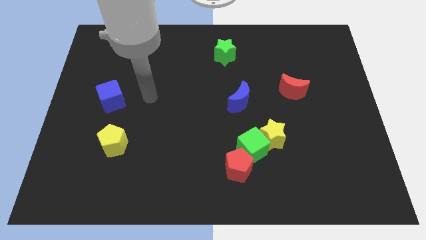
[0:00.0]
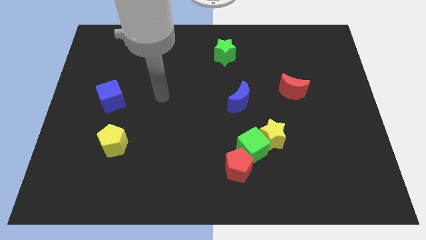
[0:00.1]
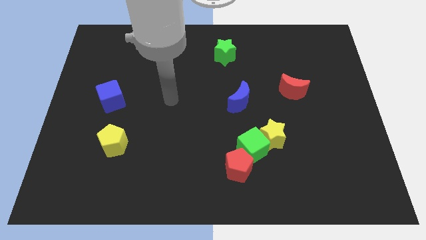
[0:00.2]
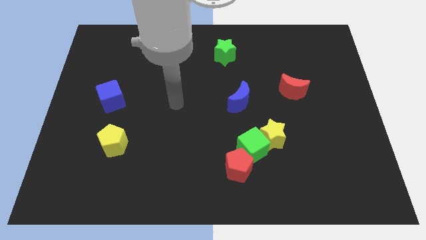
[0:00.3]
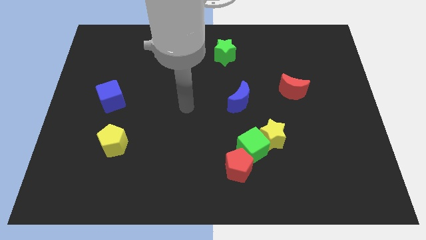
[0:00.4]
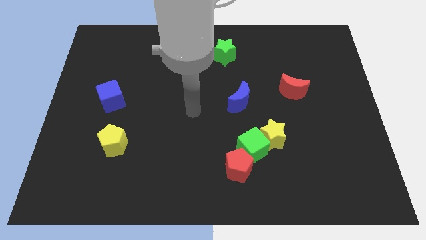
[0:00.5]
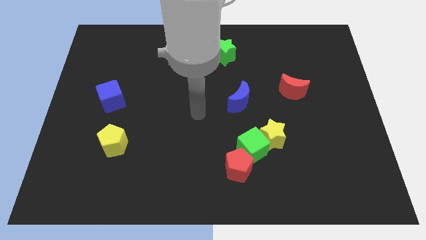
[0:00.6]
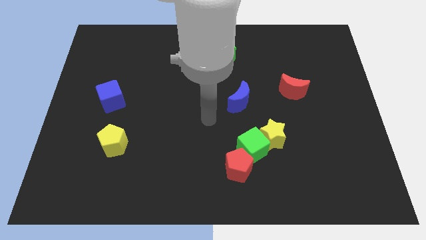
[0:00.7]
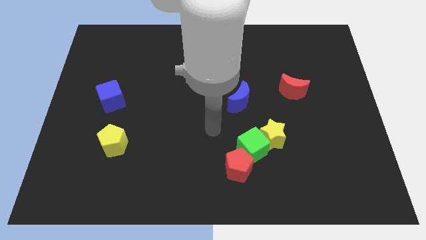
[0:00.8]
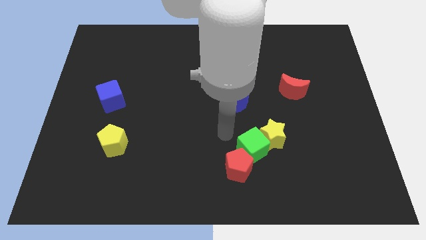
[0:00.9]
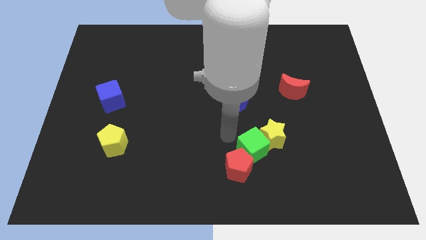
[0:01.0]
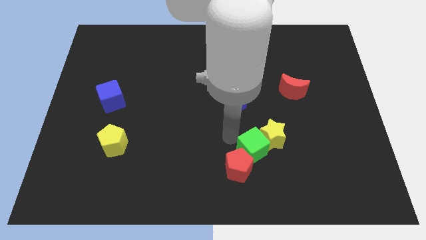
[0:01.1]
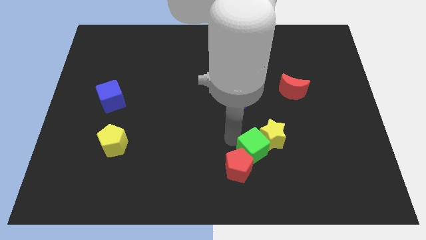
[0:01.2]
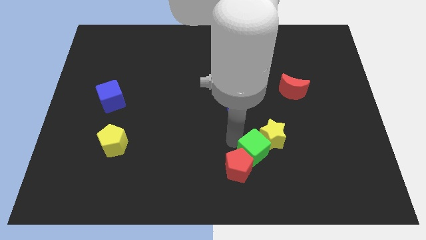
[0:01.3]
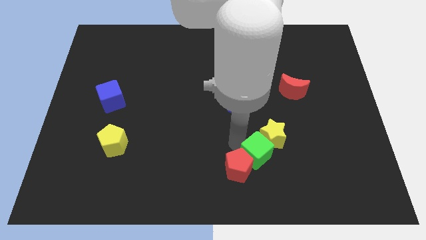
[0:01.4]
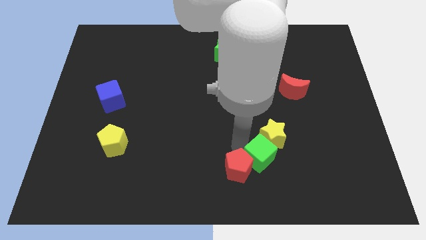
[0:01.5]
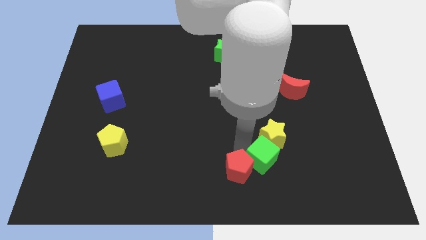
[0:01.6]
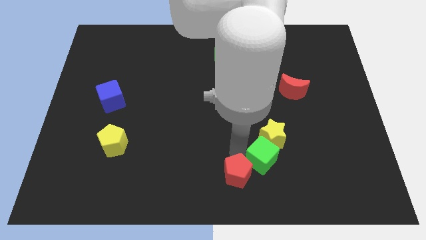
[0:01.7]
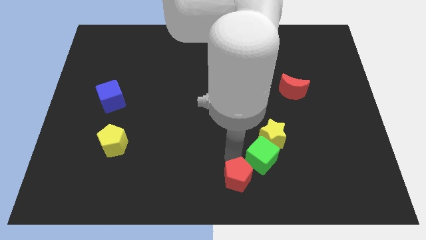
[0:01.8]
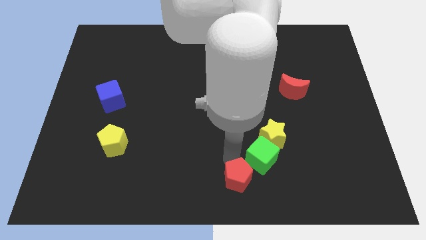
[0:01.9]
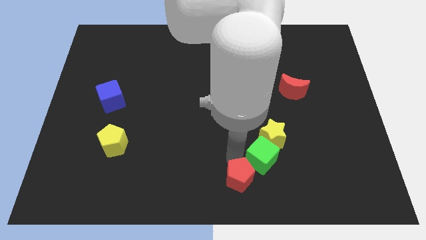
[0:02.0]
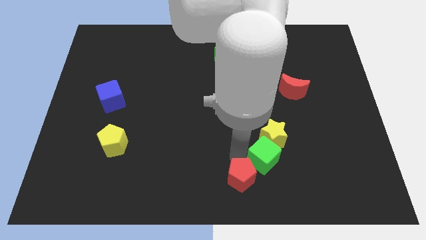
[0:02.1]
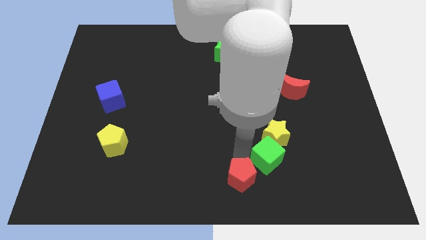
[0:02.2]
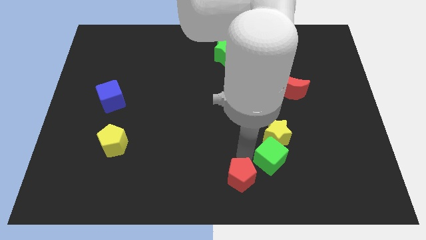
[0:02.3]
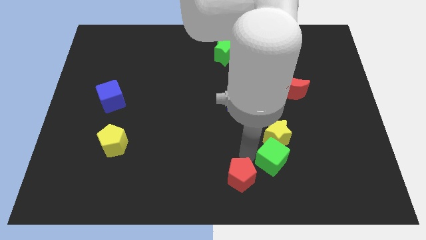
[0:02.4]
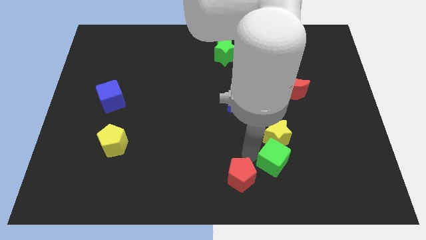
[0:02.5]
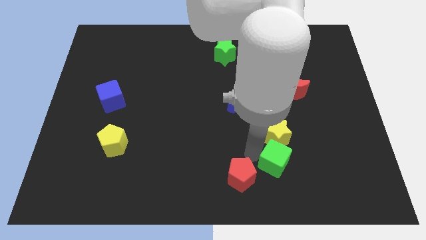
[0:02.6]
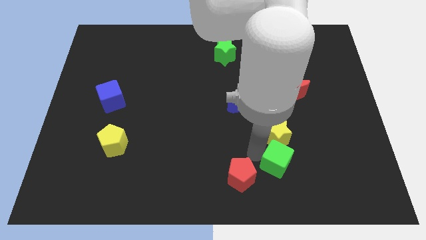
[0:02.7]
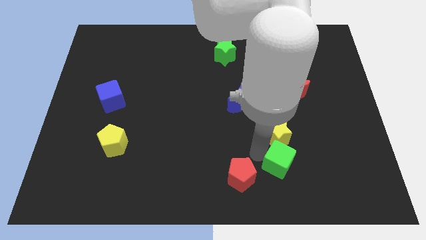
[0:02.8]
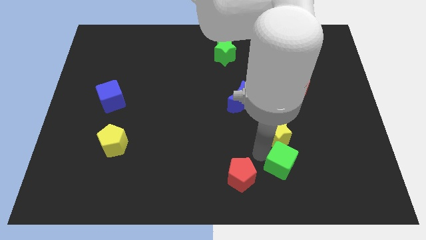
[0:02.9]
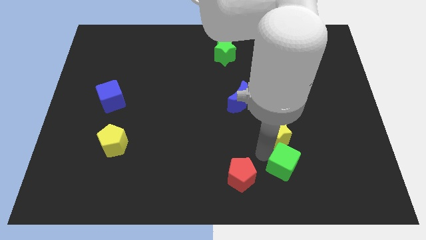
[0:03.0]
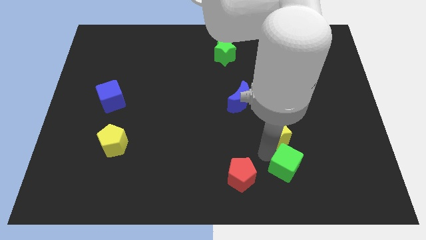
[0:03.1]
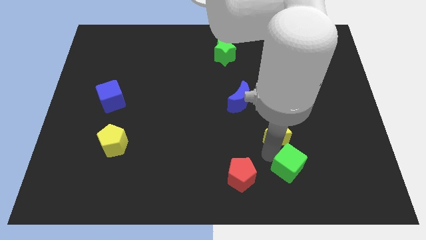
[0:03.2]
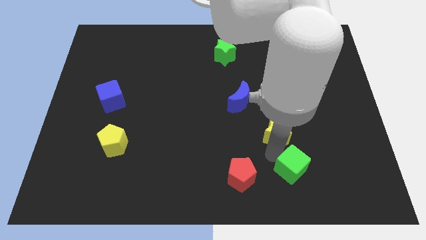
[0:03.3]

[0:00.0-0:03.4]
move the green cube right somewhat

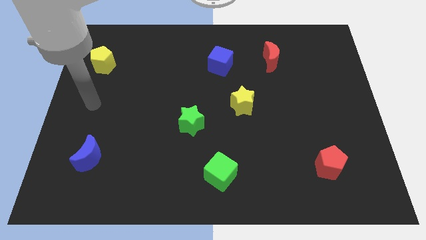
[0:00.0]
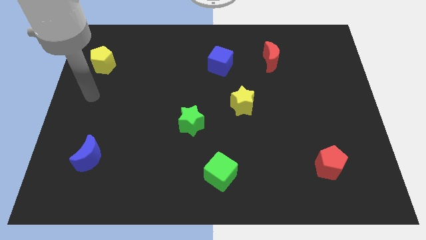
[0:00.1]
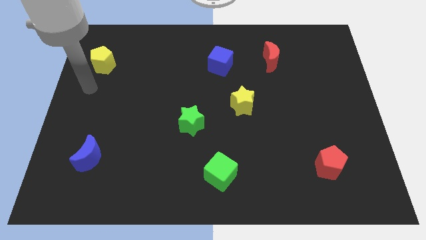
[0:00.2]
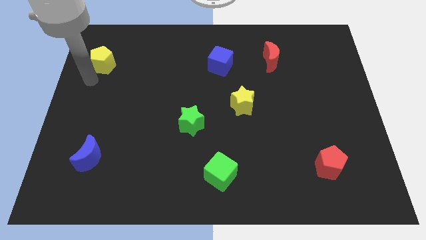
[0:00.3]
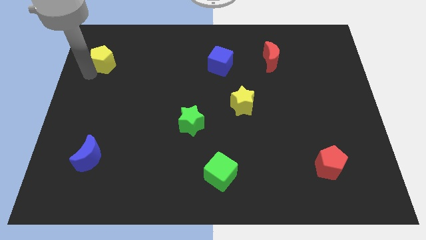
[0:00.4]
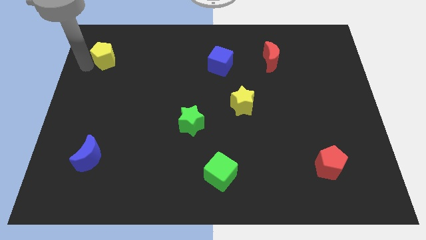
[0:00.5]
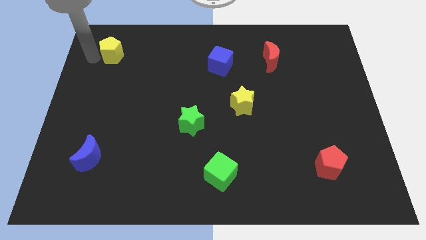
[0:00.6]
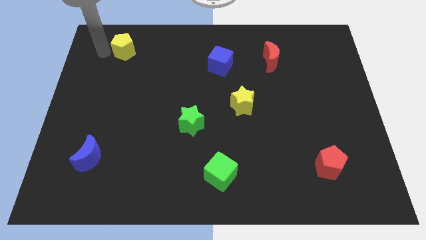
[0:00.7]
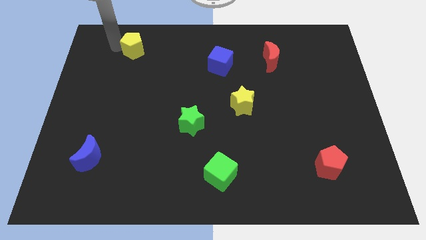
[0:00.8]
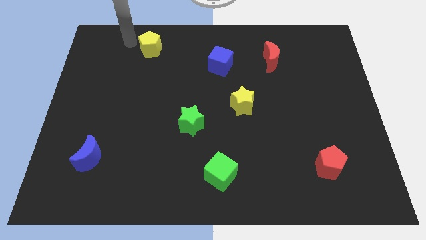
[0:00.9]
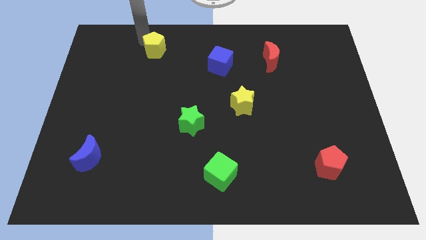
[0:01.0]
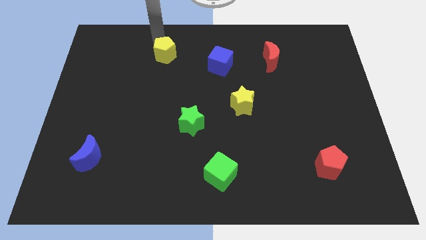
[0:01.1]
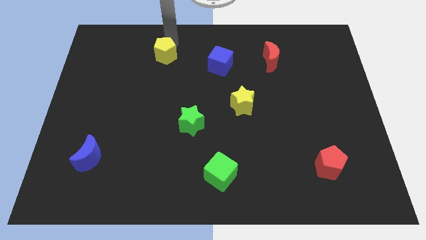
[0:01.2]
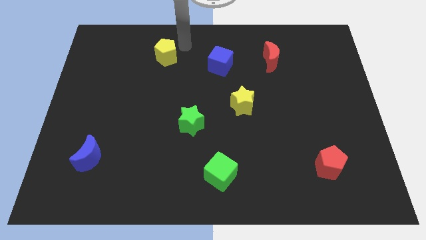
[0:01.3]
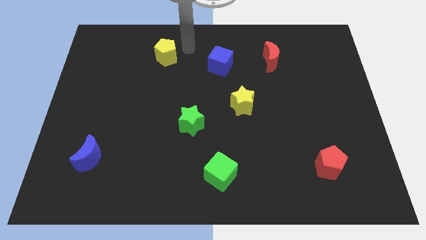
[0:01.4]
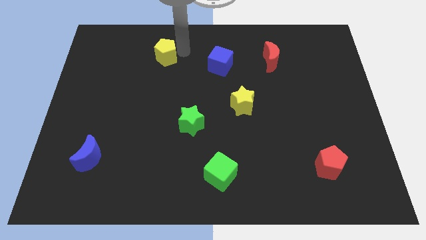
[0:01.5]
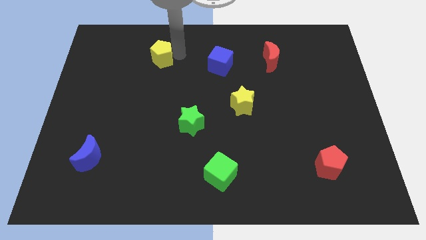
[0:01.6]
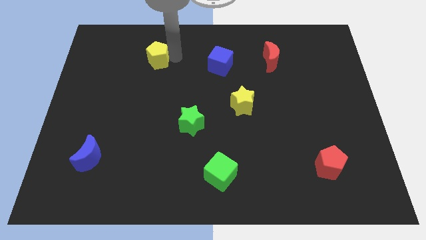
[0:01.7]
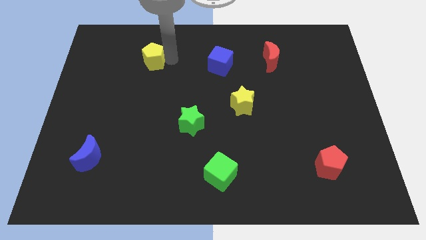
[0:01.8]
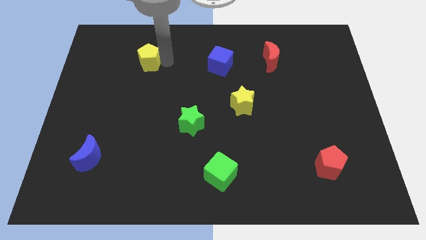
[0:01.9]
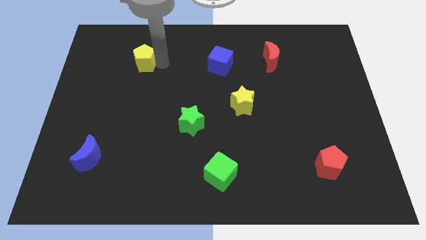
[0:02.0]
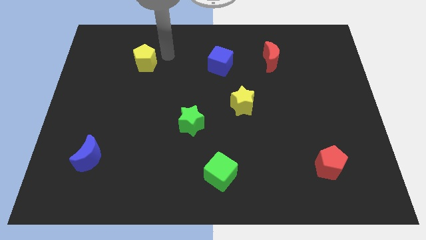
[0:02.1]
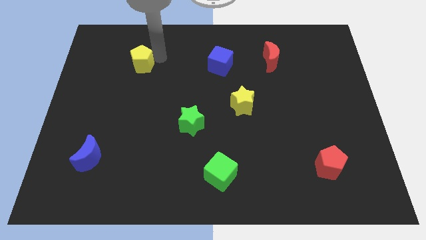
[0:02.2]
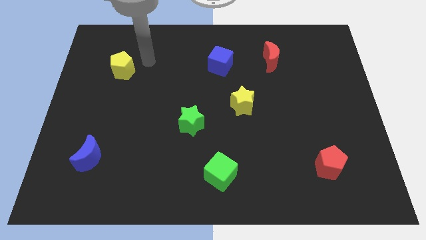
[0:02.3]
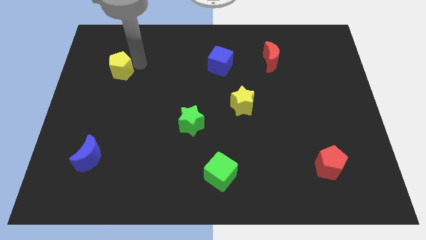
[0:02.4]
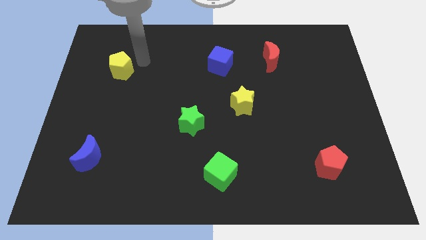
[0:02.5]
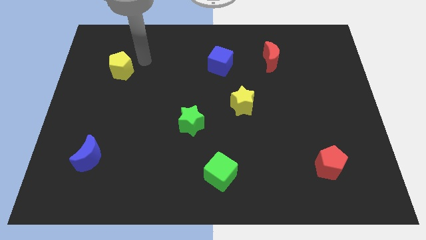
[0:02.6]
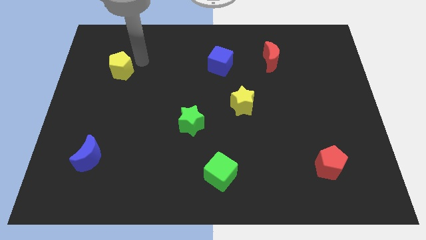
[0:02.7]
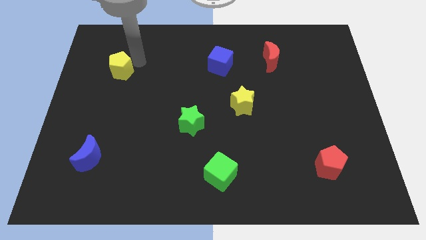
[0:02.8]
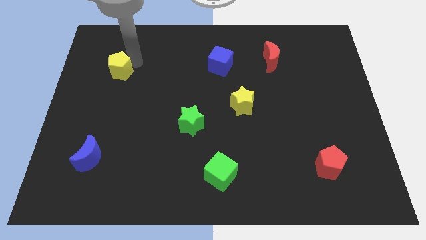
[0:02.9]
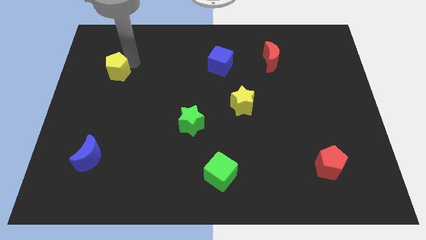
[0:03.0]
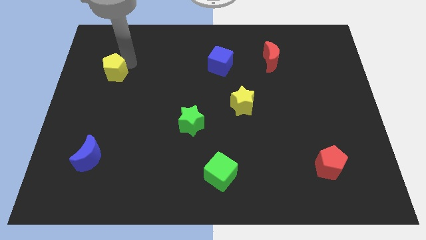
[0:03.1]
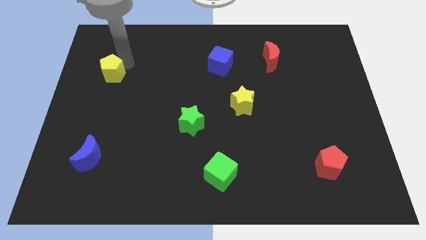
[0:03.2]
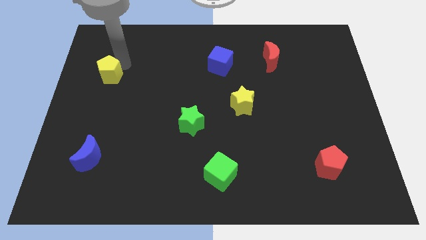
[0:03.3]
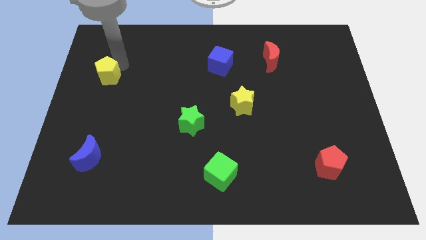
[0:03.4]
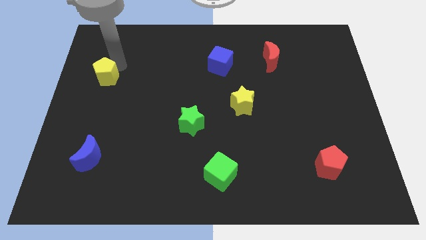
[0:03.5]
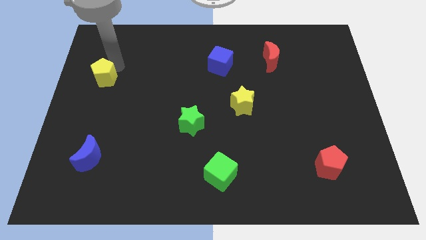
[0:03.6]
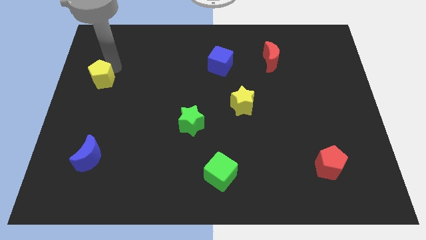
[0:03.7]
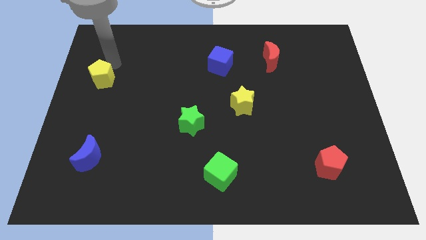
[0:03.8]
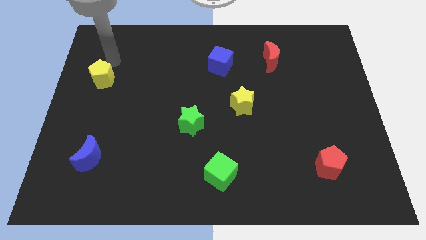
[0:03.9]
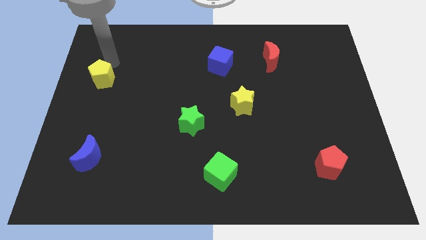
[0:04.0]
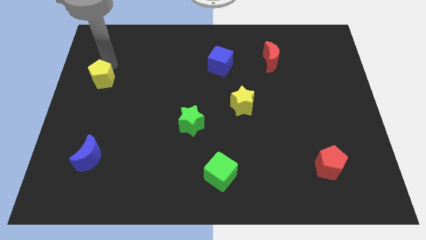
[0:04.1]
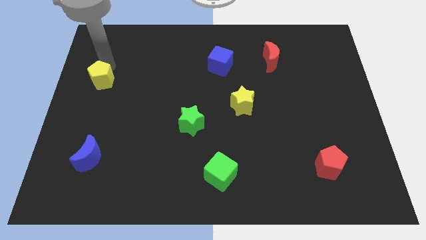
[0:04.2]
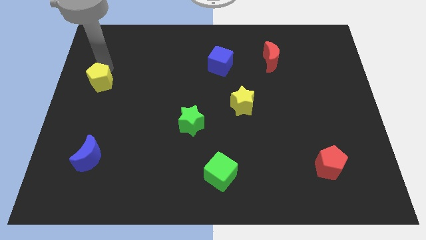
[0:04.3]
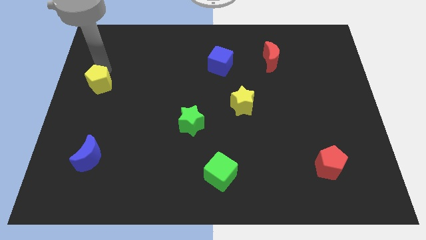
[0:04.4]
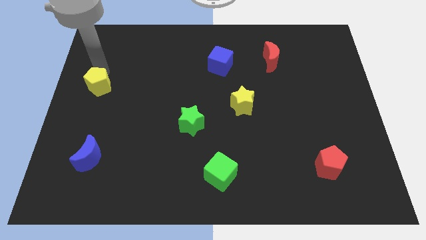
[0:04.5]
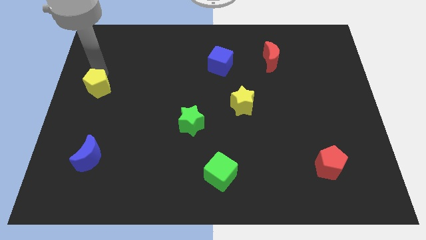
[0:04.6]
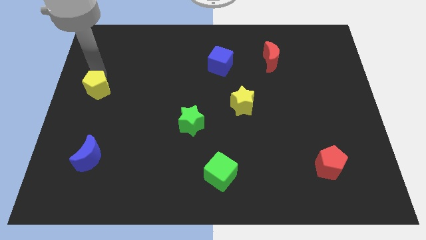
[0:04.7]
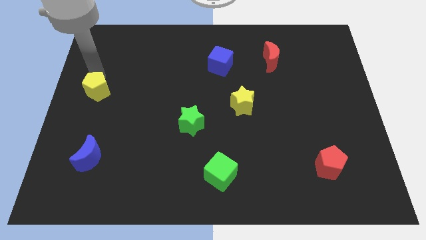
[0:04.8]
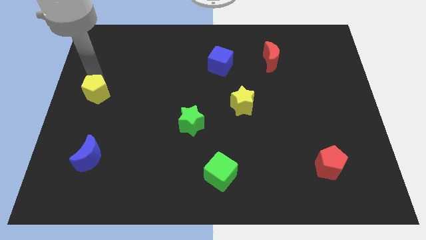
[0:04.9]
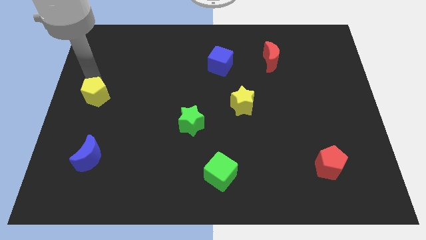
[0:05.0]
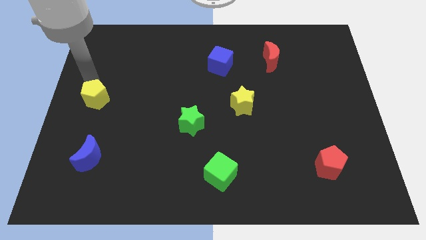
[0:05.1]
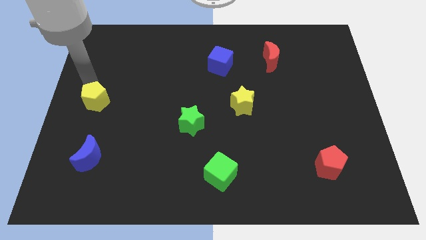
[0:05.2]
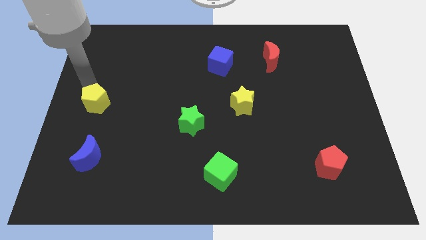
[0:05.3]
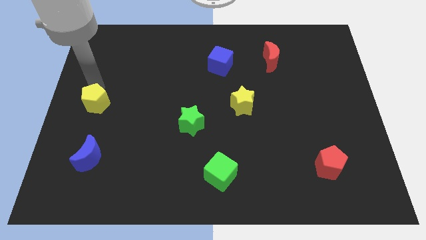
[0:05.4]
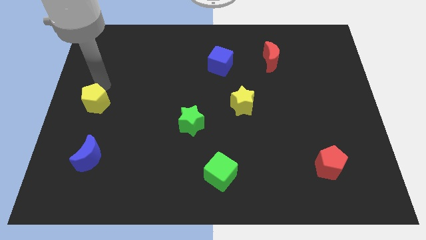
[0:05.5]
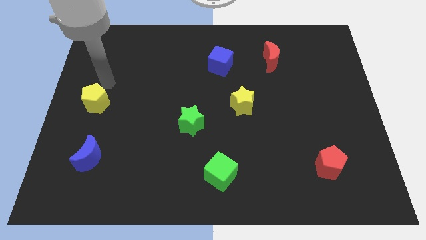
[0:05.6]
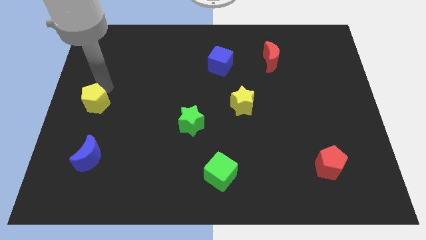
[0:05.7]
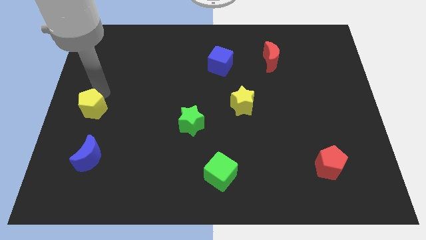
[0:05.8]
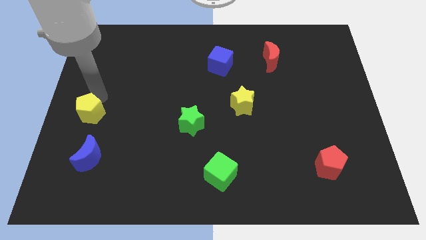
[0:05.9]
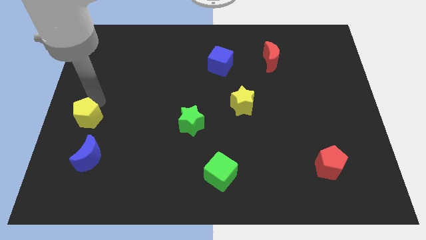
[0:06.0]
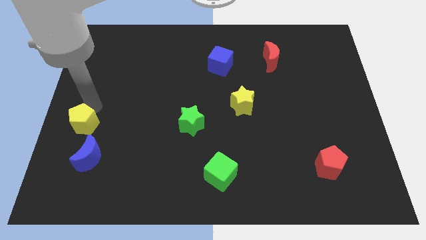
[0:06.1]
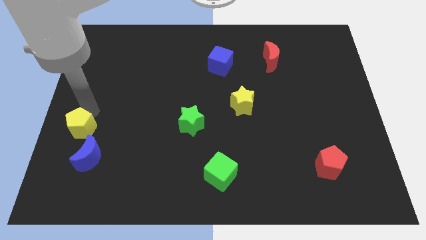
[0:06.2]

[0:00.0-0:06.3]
slide the yellow pentagon downwards
